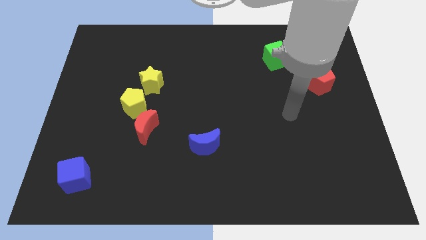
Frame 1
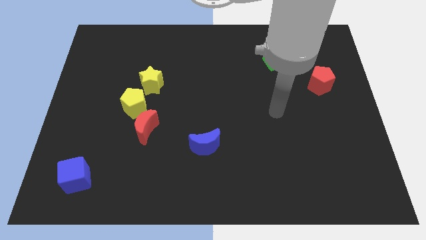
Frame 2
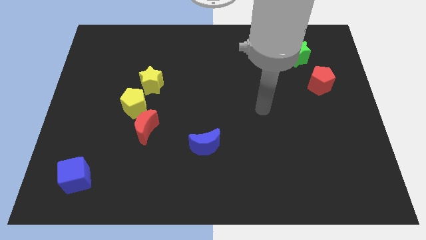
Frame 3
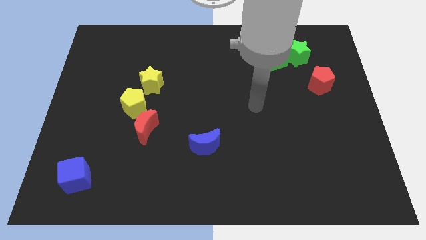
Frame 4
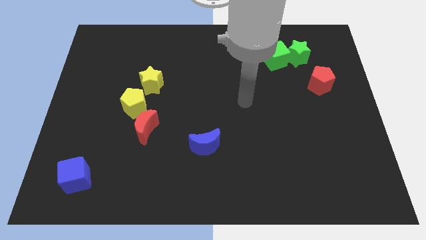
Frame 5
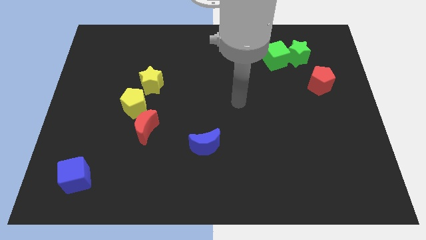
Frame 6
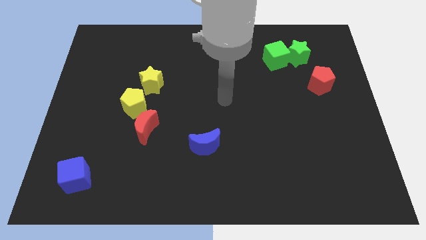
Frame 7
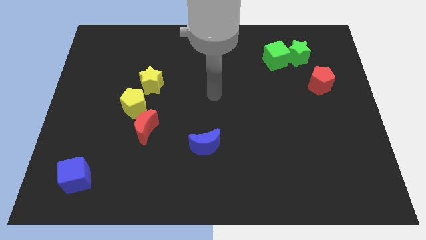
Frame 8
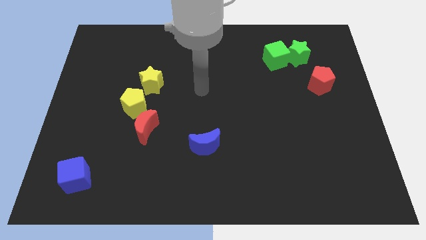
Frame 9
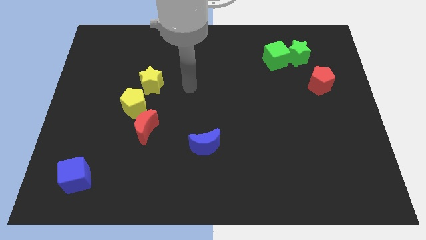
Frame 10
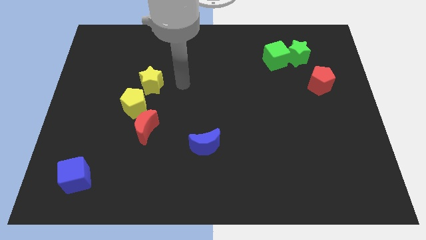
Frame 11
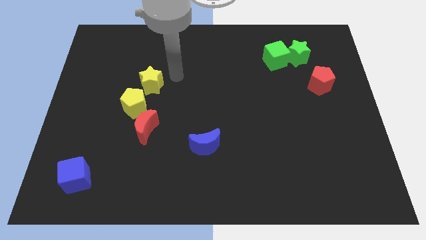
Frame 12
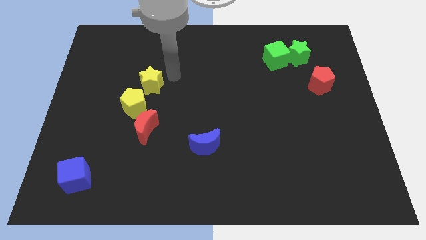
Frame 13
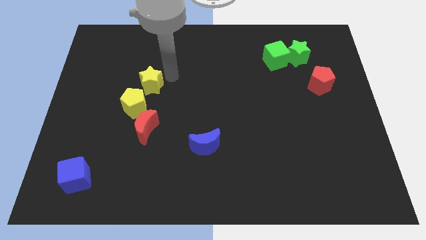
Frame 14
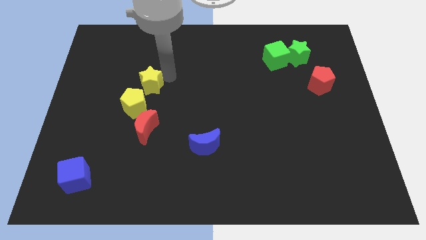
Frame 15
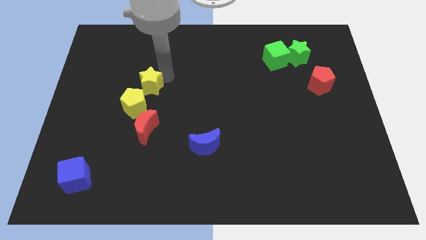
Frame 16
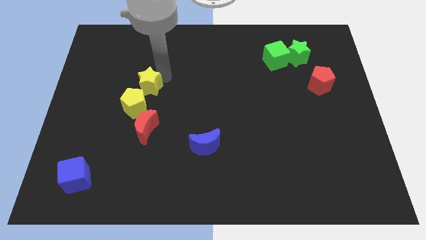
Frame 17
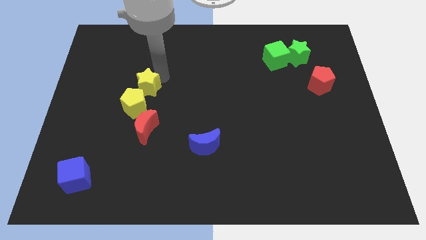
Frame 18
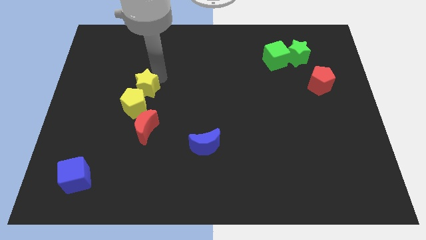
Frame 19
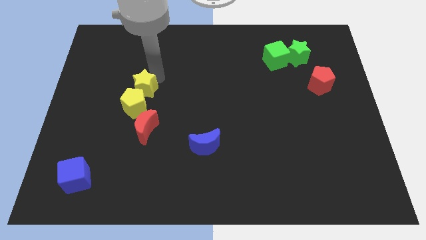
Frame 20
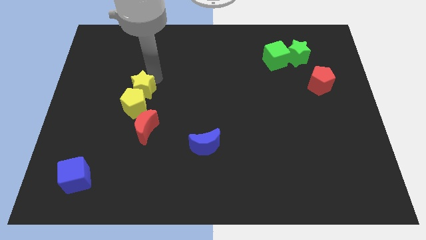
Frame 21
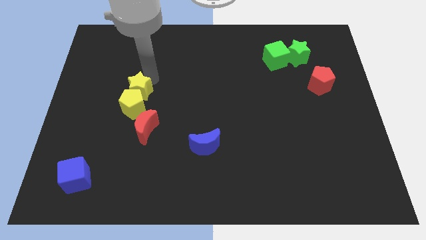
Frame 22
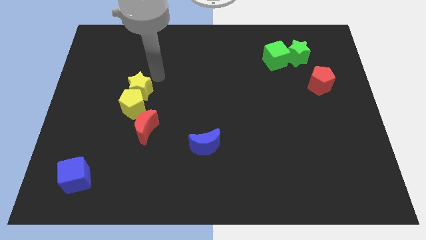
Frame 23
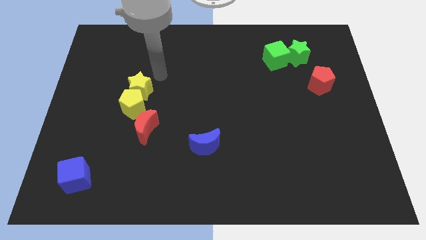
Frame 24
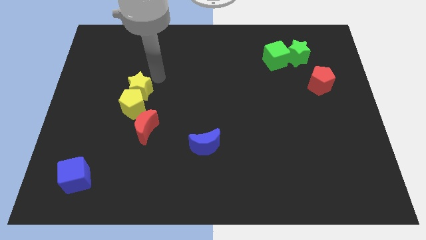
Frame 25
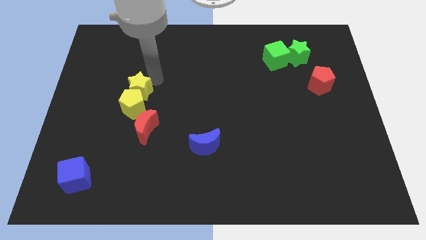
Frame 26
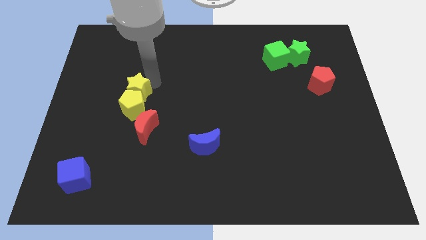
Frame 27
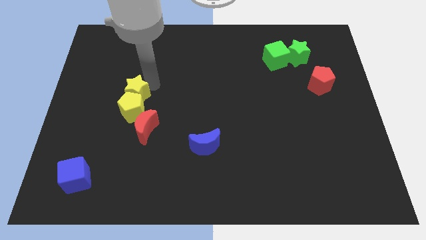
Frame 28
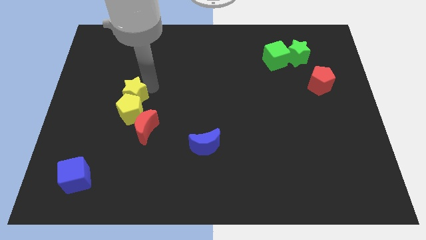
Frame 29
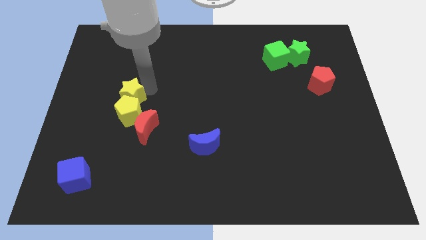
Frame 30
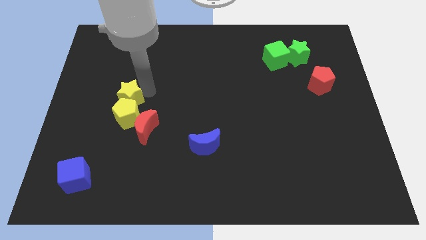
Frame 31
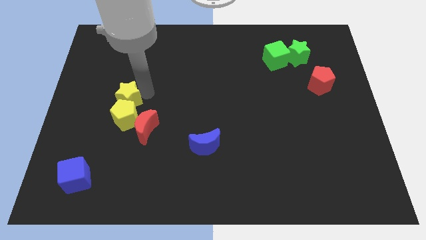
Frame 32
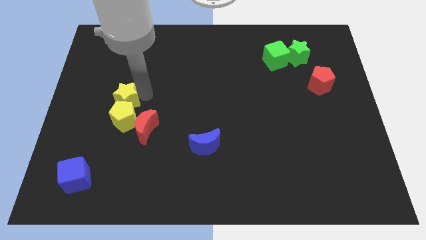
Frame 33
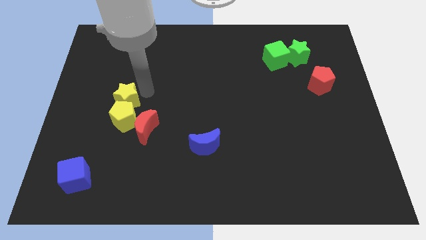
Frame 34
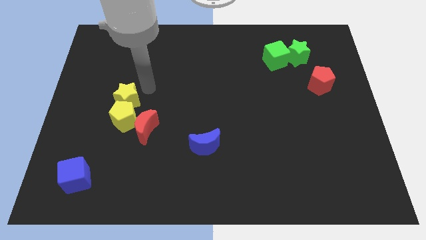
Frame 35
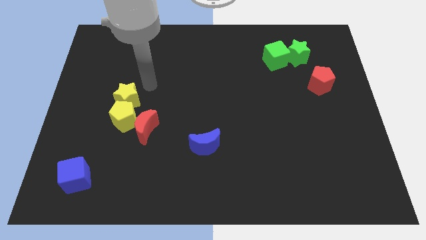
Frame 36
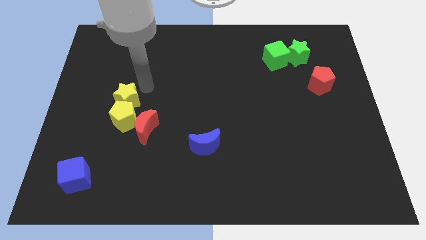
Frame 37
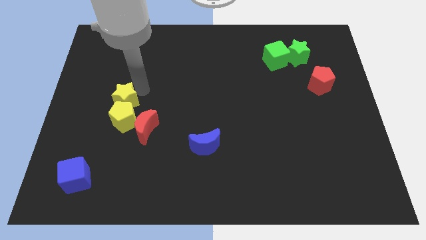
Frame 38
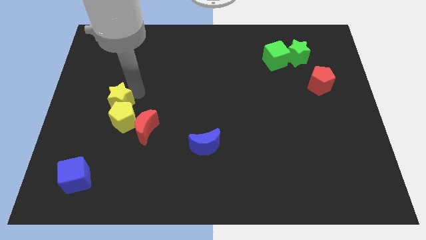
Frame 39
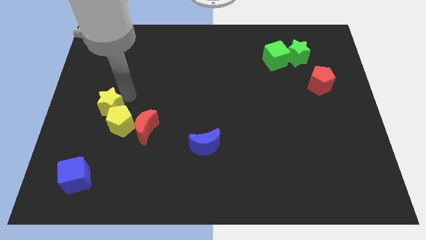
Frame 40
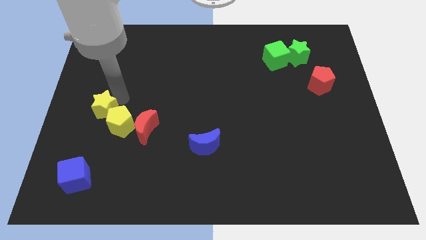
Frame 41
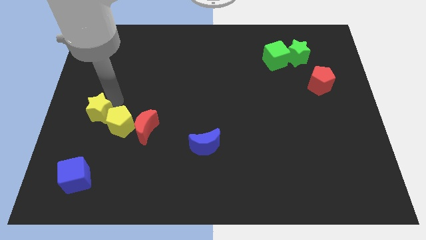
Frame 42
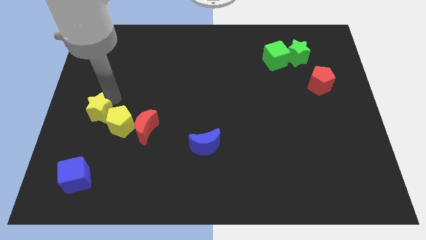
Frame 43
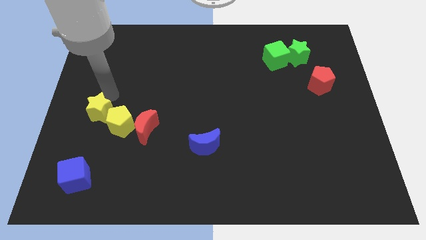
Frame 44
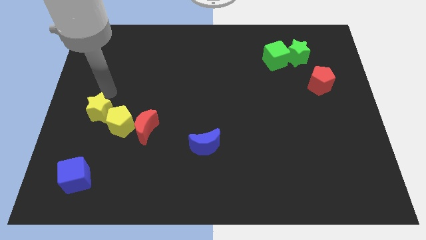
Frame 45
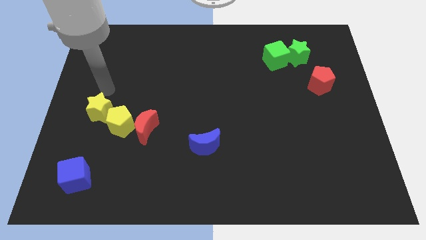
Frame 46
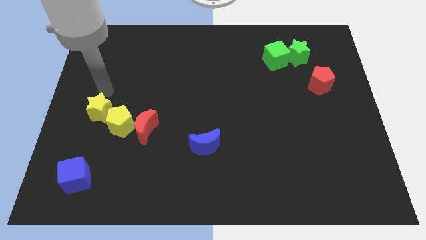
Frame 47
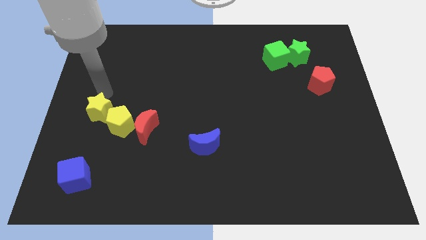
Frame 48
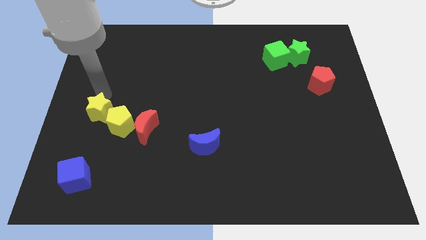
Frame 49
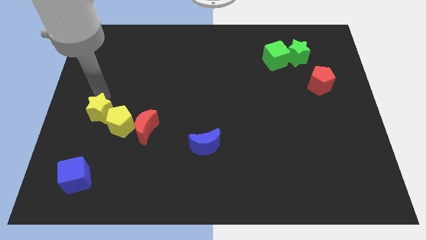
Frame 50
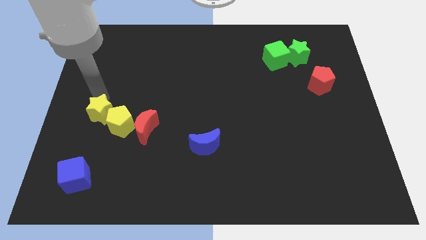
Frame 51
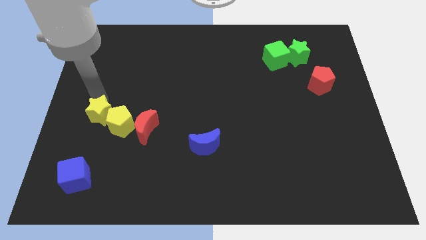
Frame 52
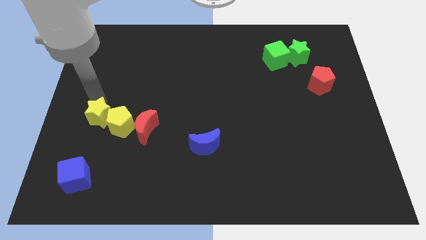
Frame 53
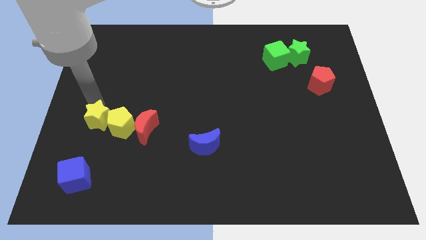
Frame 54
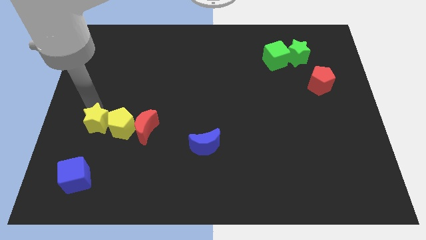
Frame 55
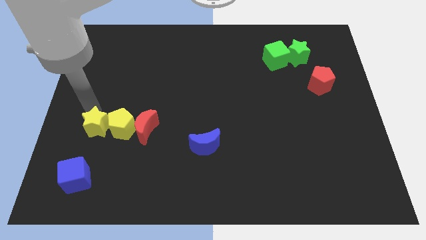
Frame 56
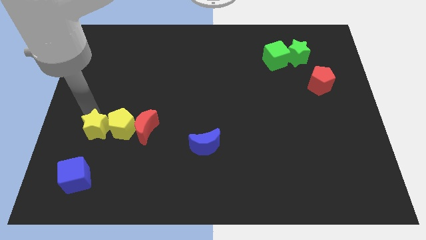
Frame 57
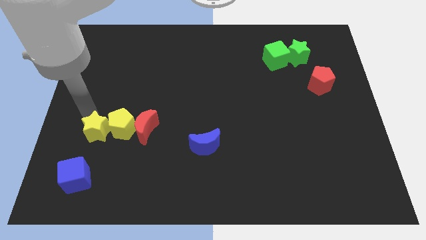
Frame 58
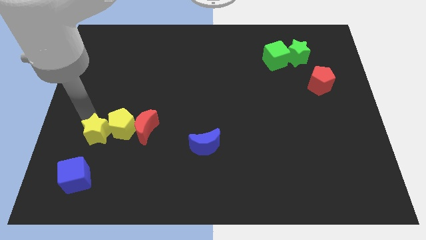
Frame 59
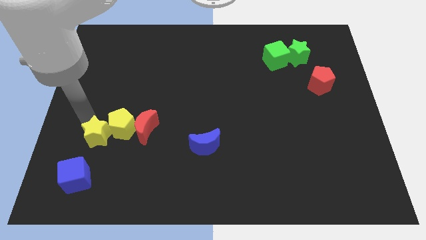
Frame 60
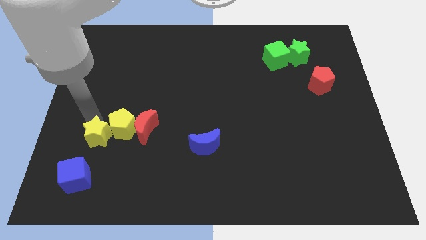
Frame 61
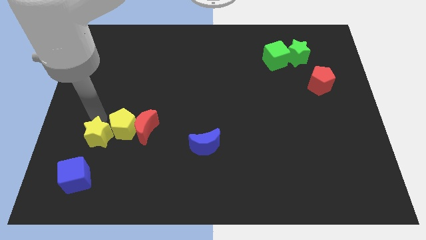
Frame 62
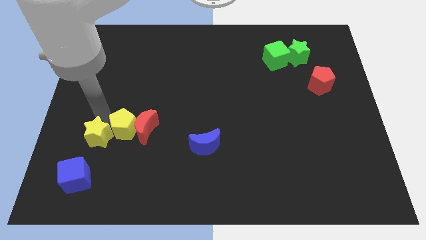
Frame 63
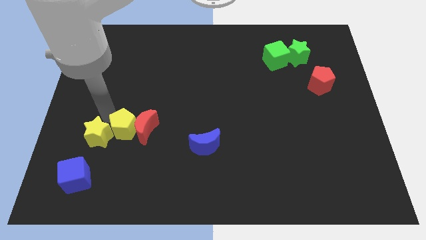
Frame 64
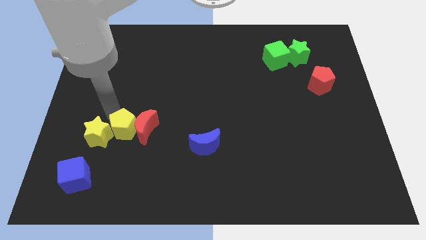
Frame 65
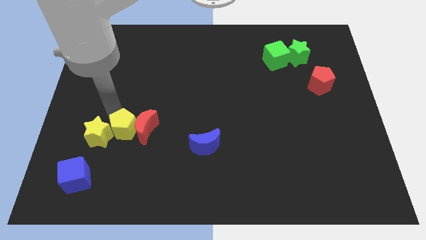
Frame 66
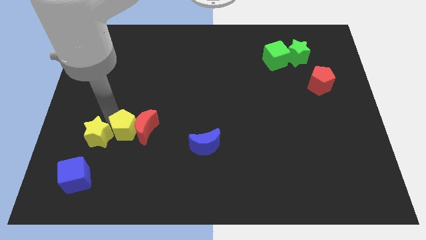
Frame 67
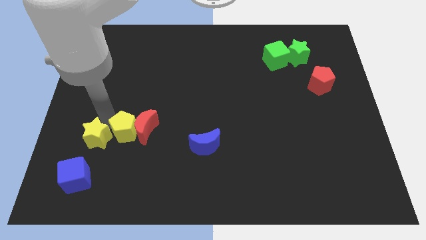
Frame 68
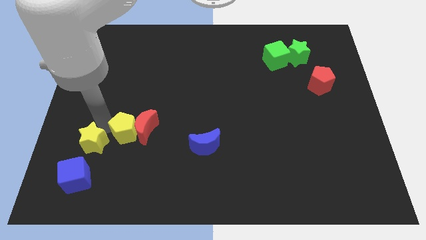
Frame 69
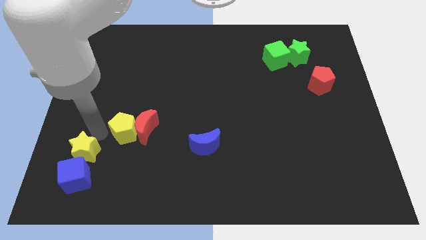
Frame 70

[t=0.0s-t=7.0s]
slide the yellow star next to the blue cube
